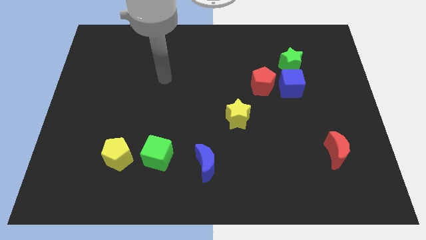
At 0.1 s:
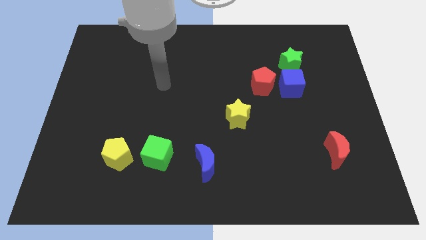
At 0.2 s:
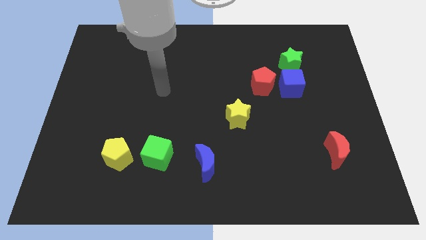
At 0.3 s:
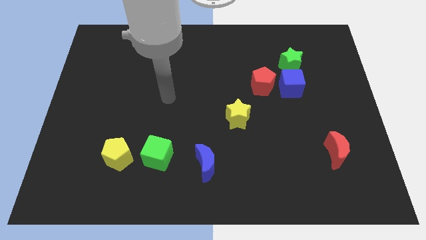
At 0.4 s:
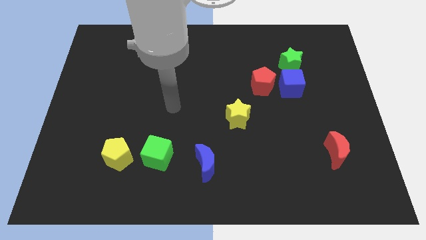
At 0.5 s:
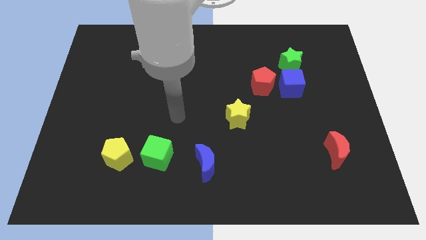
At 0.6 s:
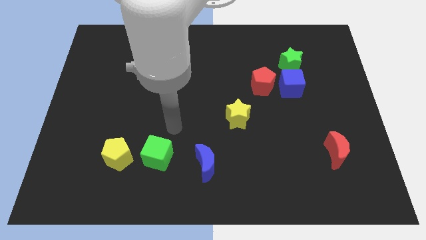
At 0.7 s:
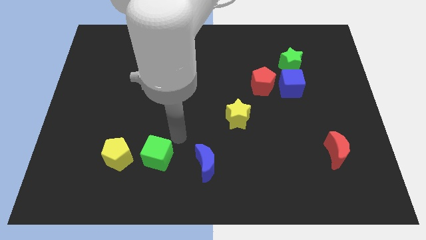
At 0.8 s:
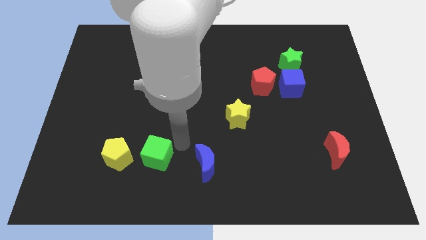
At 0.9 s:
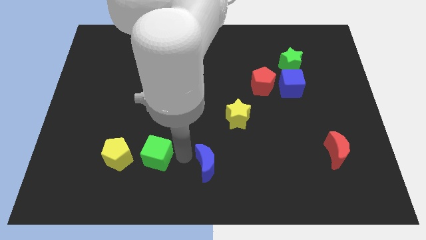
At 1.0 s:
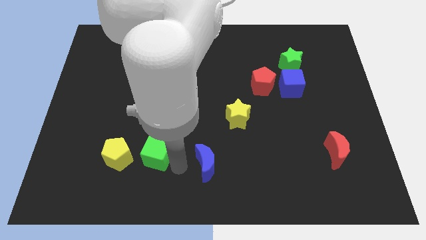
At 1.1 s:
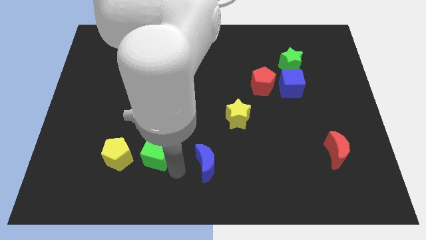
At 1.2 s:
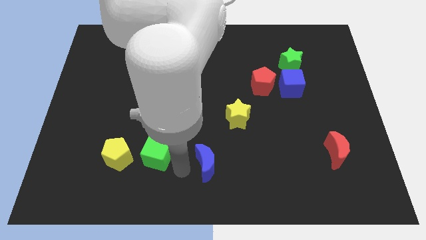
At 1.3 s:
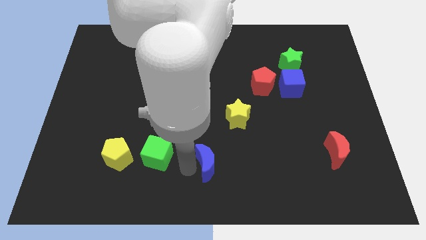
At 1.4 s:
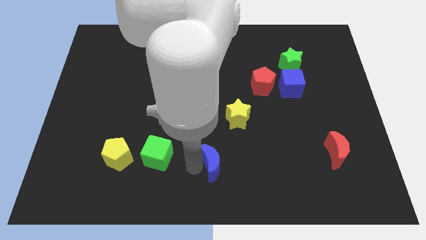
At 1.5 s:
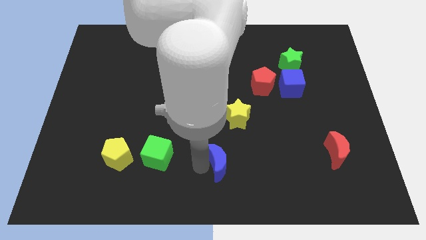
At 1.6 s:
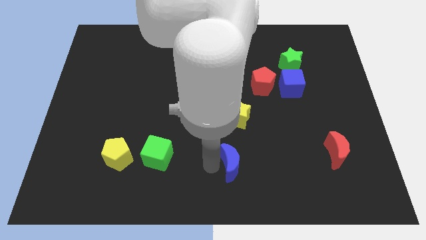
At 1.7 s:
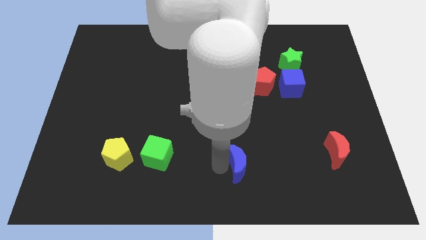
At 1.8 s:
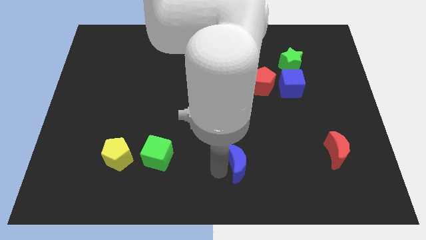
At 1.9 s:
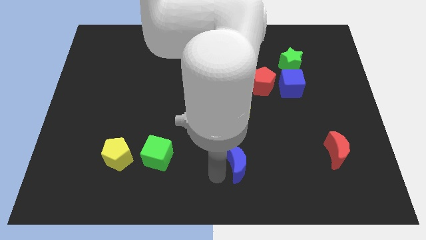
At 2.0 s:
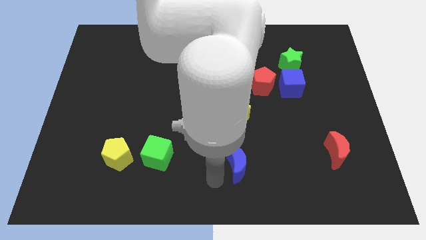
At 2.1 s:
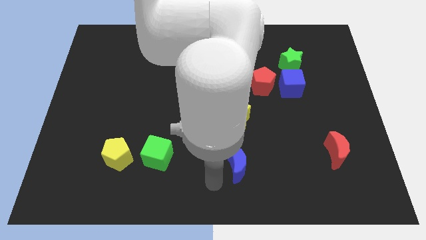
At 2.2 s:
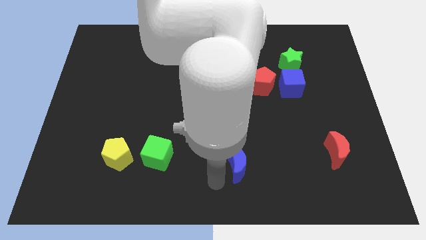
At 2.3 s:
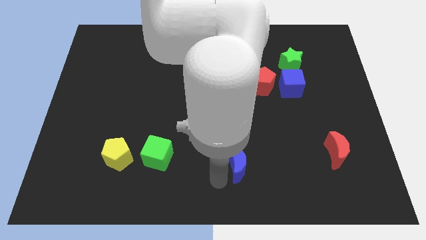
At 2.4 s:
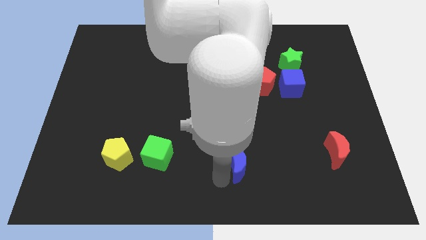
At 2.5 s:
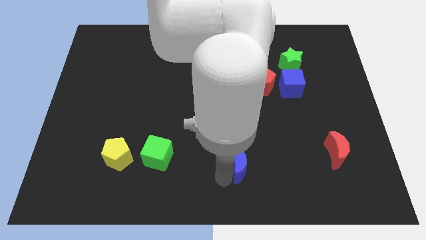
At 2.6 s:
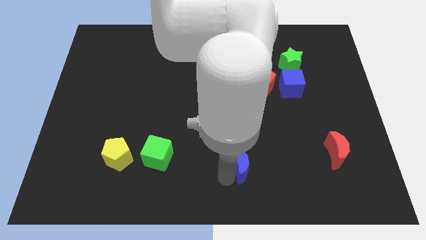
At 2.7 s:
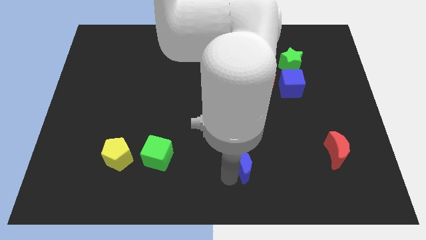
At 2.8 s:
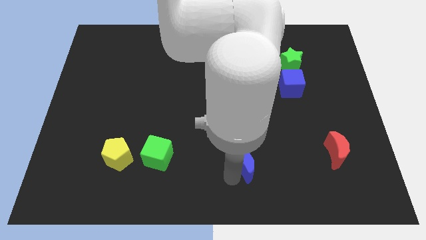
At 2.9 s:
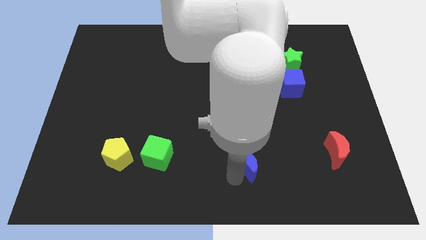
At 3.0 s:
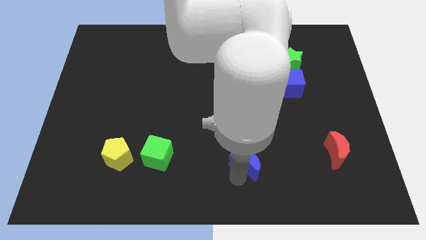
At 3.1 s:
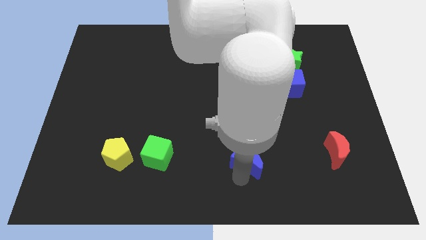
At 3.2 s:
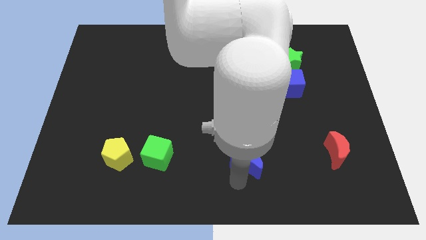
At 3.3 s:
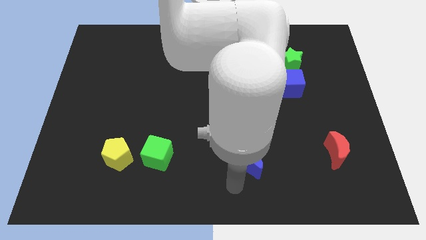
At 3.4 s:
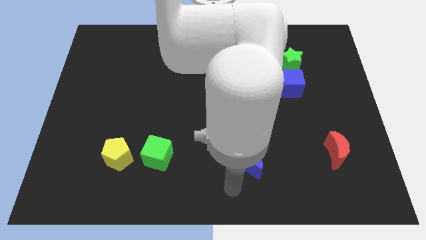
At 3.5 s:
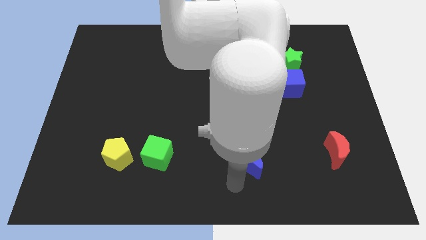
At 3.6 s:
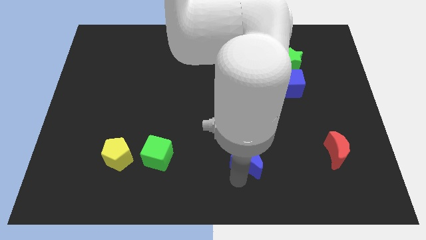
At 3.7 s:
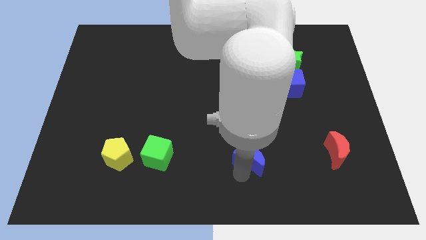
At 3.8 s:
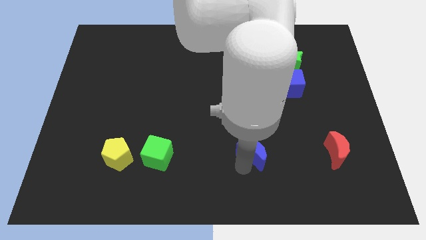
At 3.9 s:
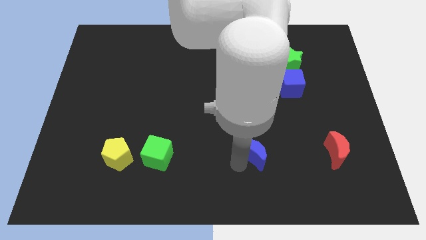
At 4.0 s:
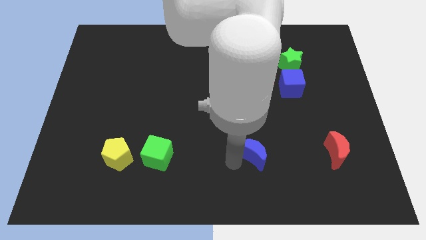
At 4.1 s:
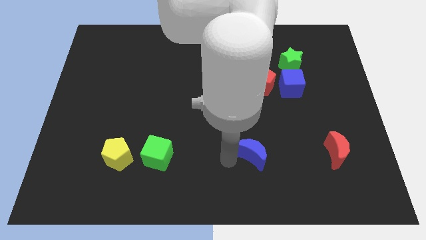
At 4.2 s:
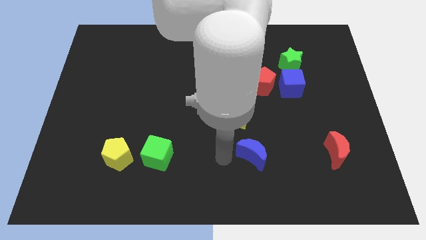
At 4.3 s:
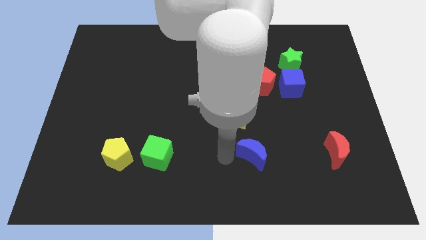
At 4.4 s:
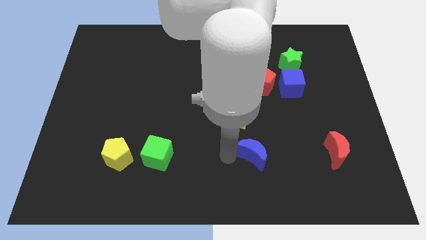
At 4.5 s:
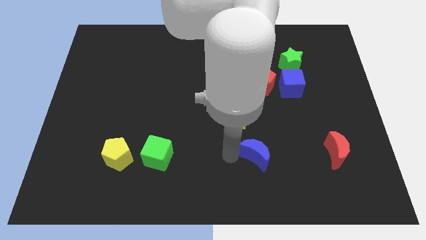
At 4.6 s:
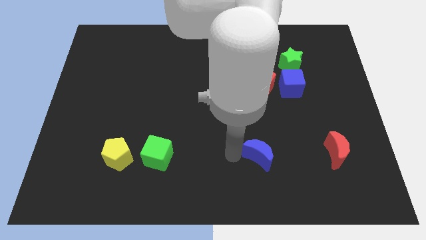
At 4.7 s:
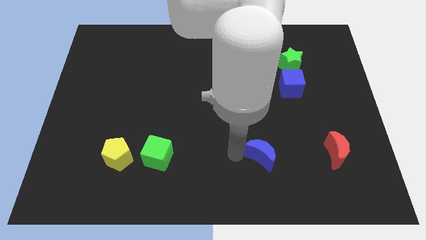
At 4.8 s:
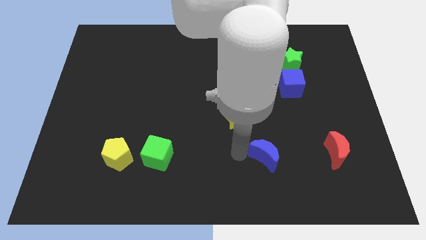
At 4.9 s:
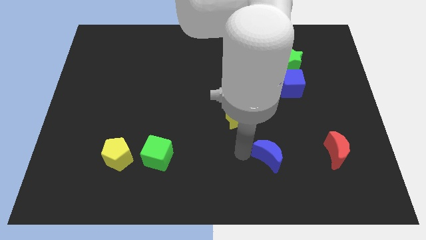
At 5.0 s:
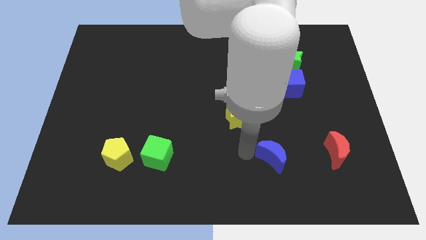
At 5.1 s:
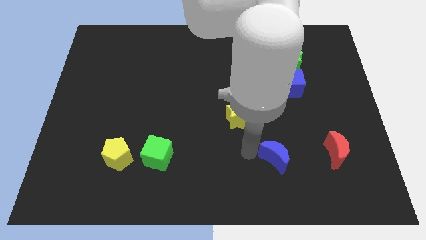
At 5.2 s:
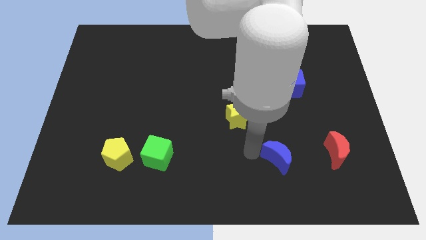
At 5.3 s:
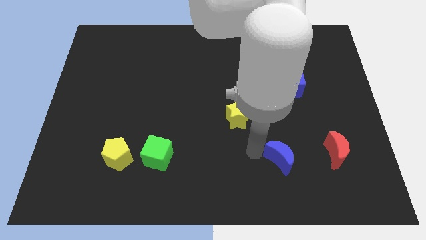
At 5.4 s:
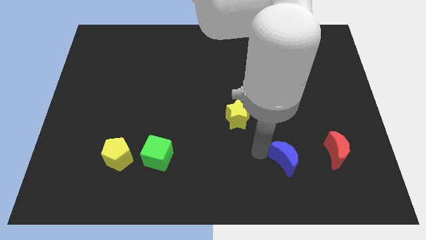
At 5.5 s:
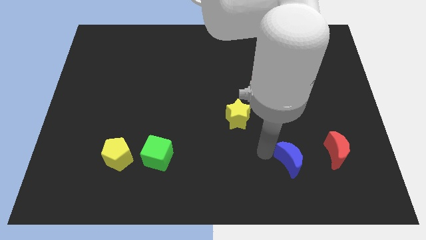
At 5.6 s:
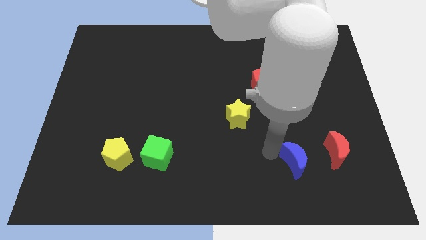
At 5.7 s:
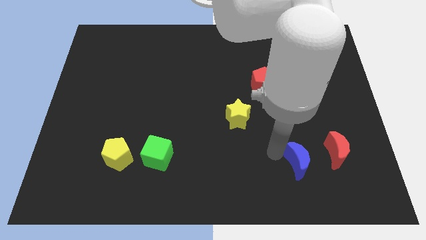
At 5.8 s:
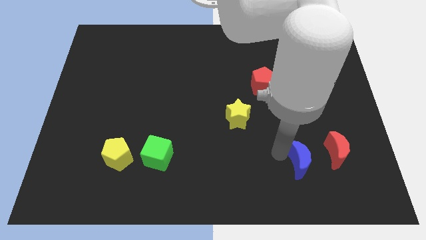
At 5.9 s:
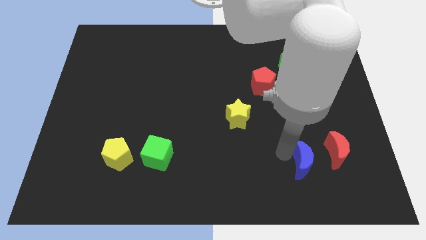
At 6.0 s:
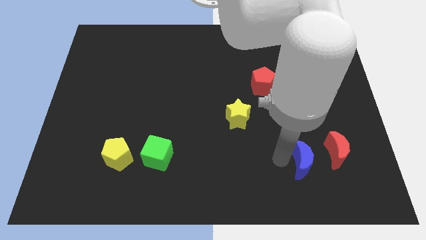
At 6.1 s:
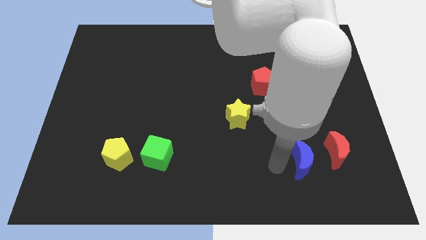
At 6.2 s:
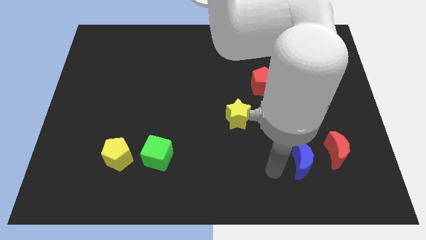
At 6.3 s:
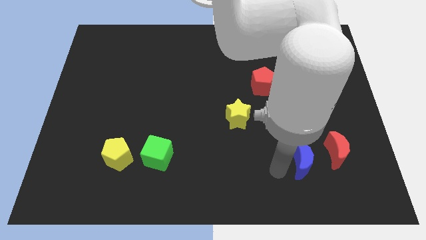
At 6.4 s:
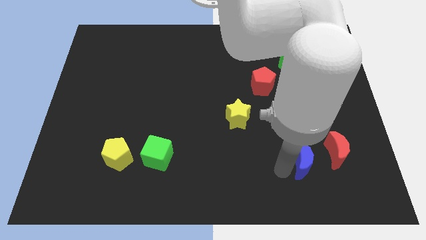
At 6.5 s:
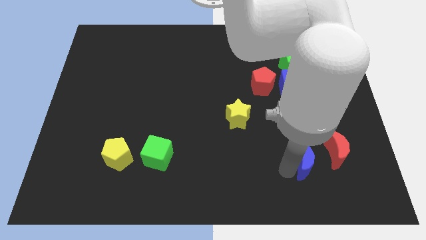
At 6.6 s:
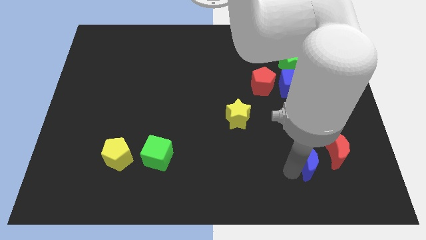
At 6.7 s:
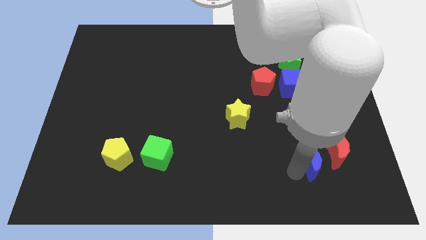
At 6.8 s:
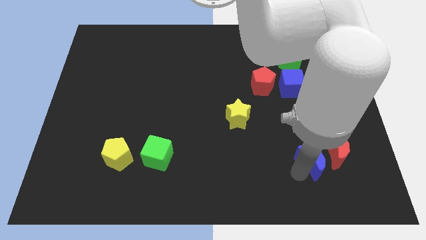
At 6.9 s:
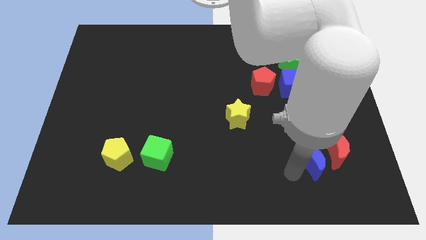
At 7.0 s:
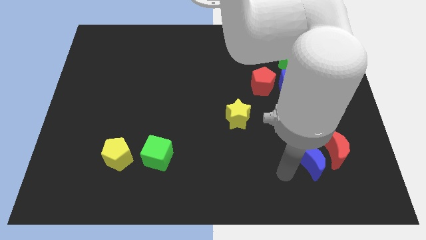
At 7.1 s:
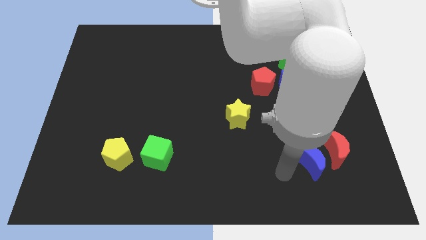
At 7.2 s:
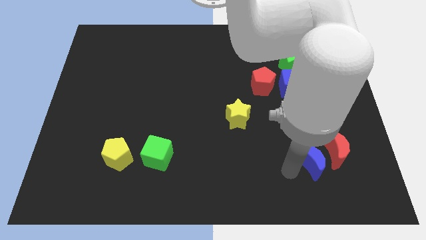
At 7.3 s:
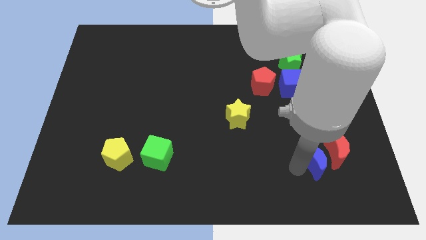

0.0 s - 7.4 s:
push the blue moon next to the red moon
